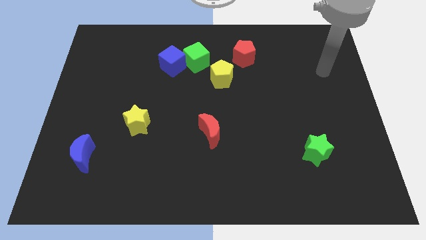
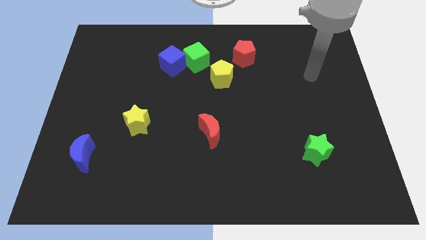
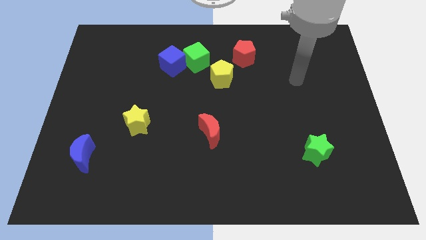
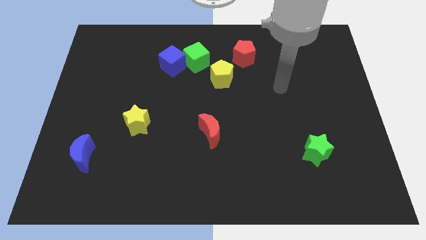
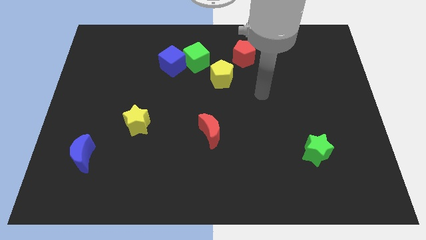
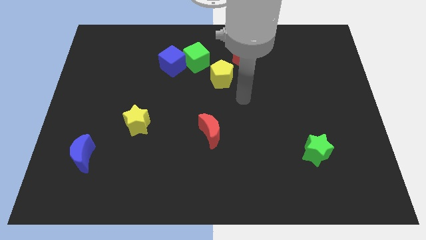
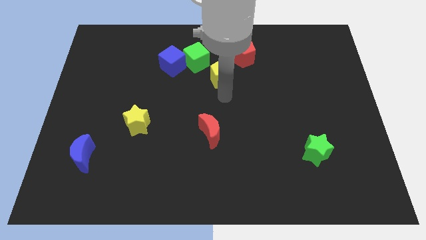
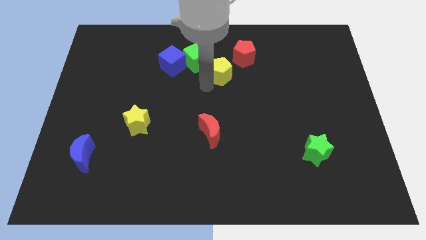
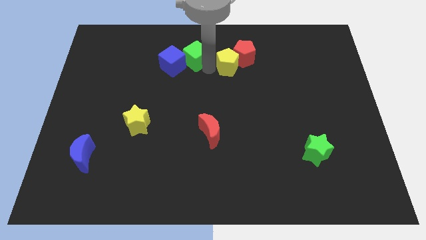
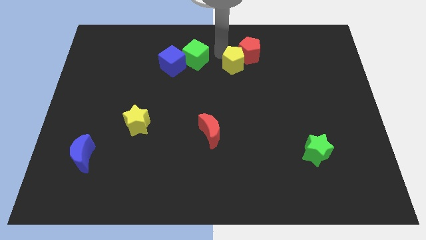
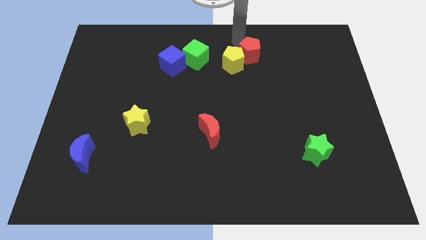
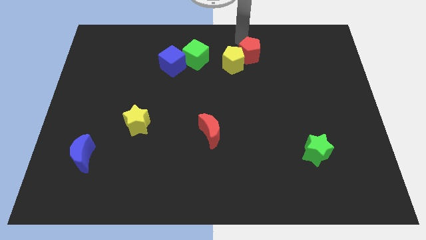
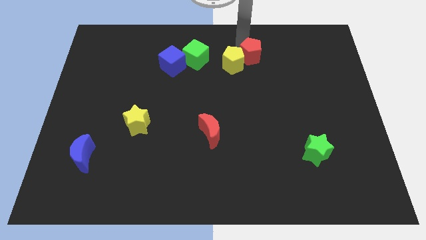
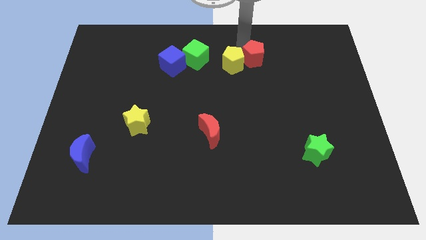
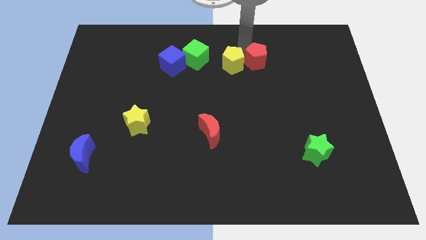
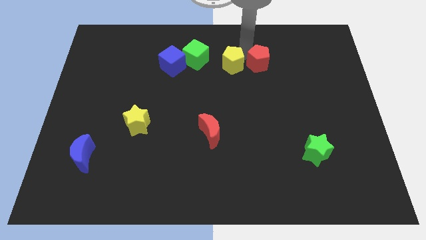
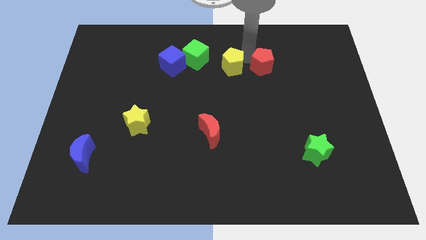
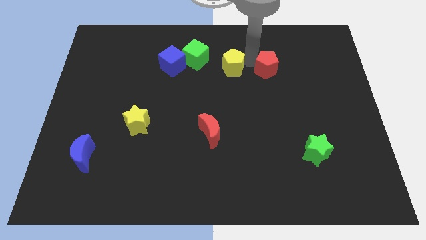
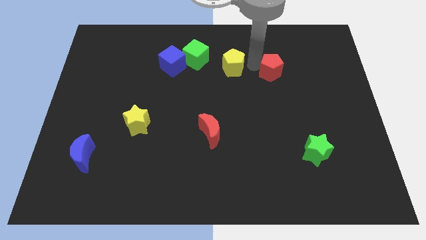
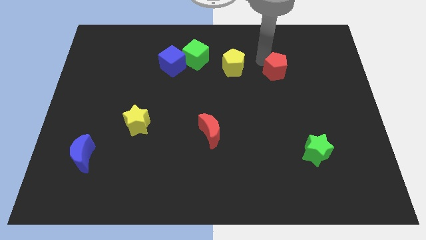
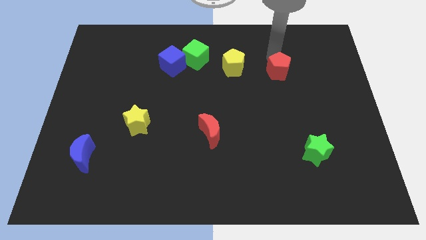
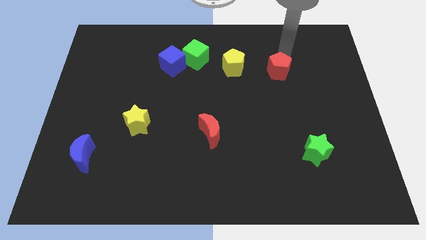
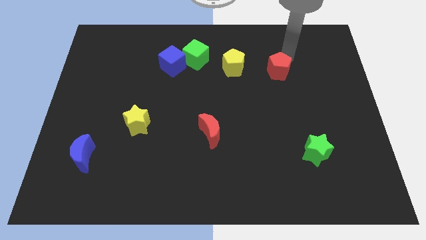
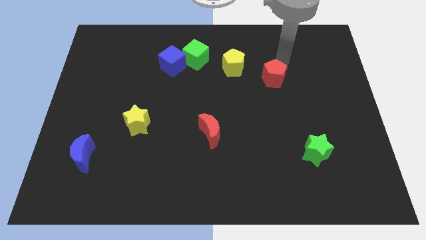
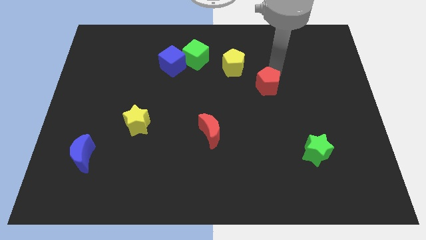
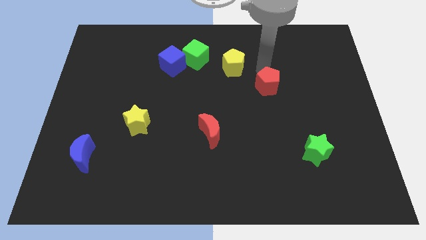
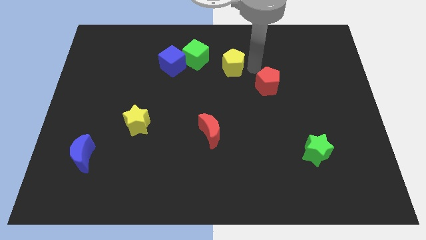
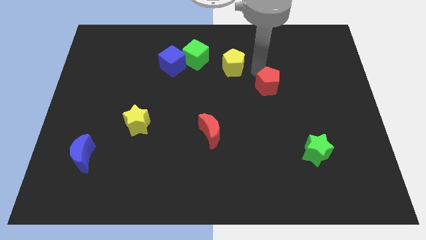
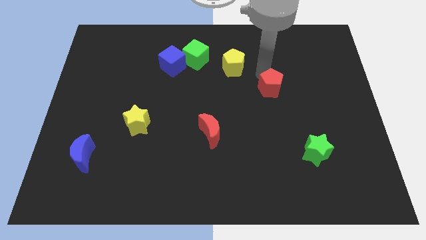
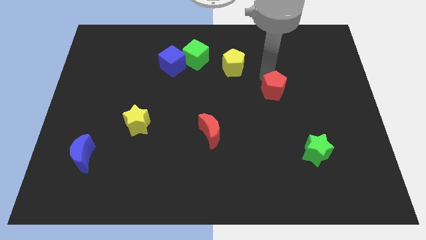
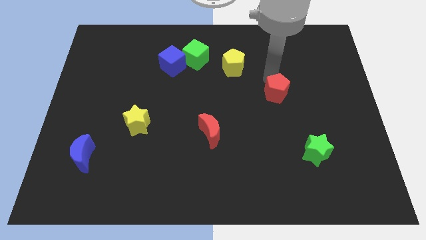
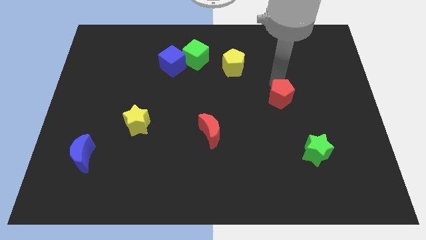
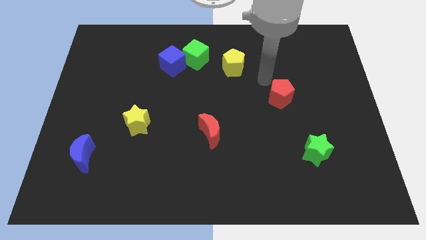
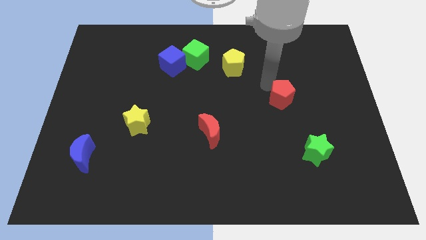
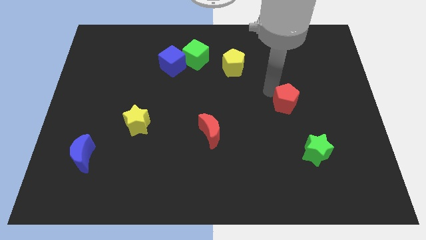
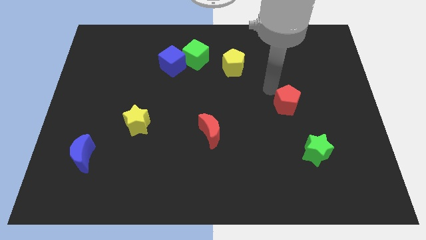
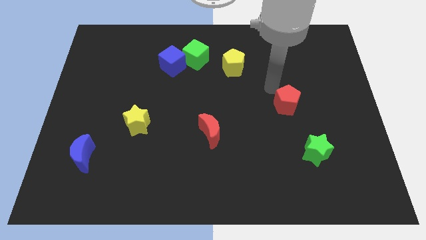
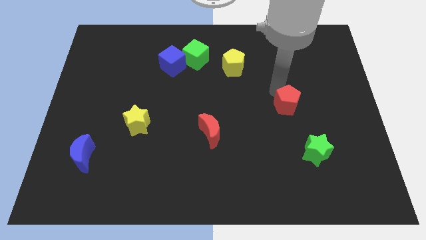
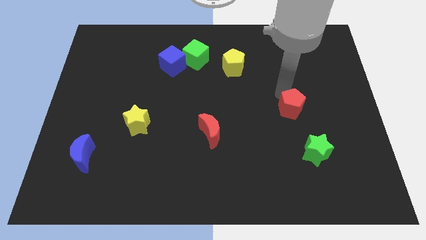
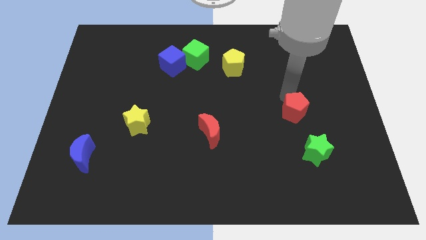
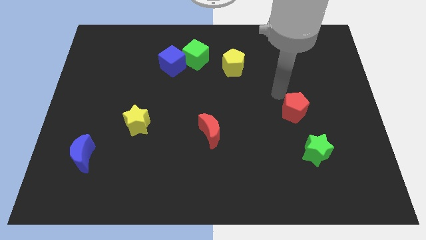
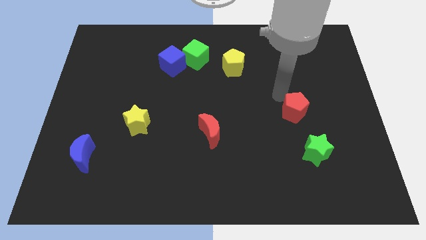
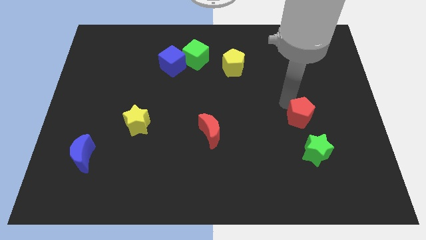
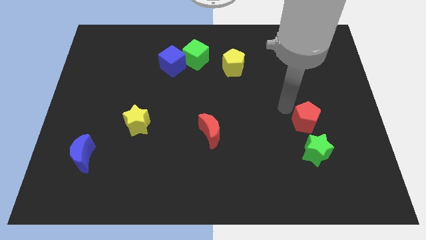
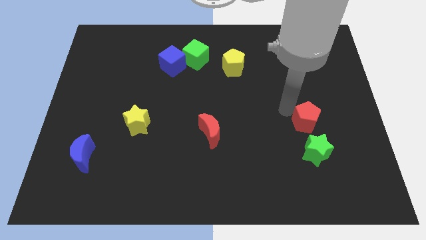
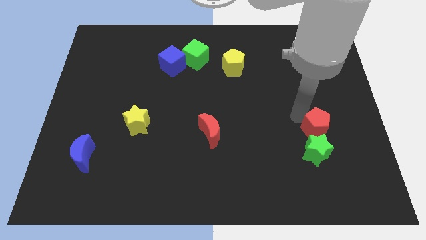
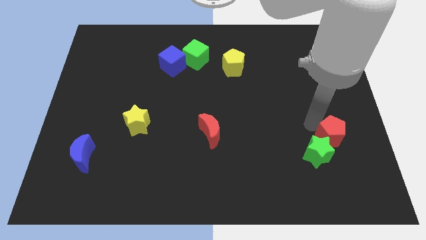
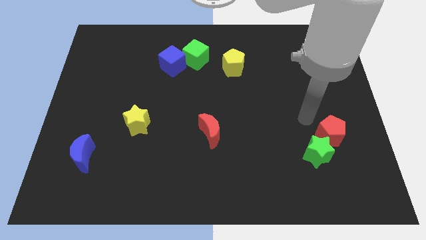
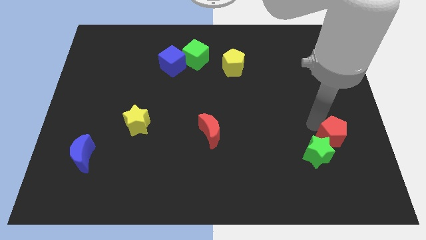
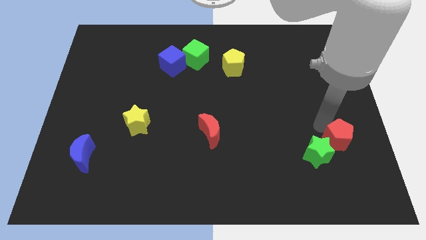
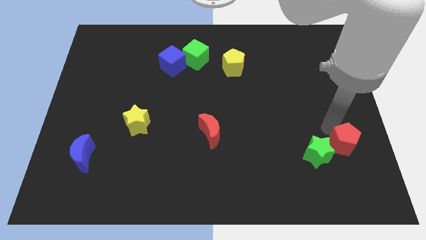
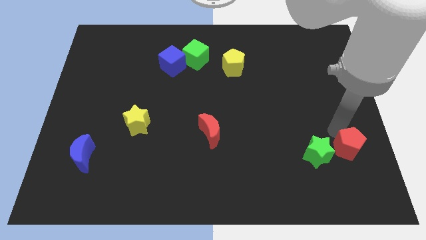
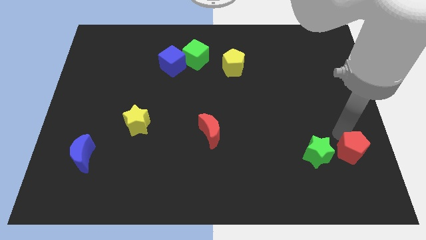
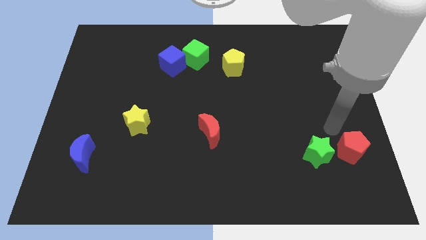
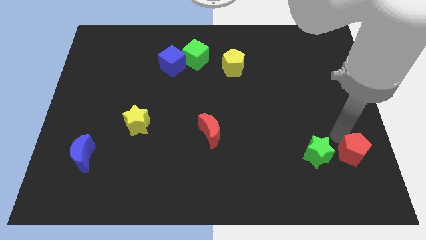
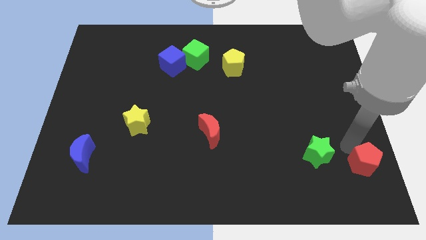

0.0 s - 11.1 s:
put the red pentagon to the lower right corner

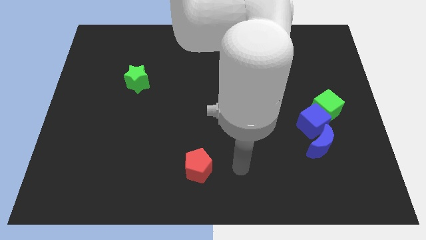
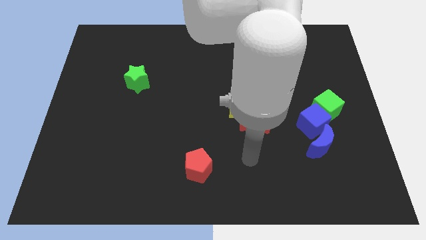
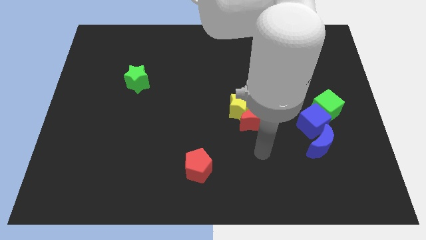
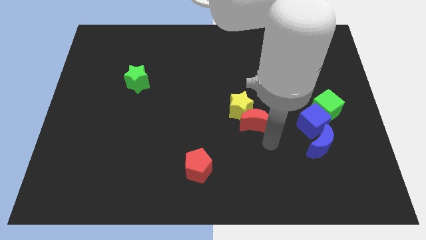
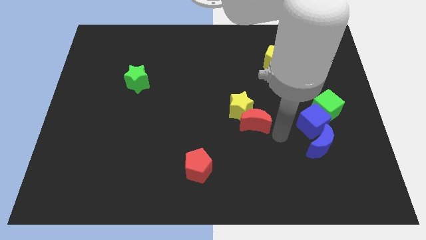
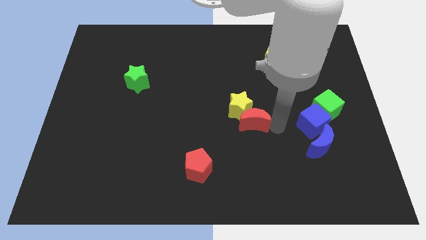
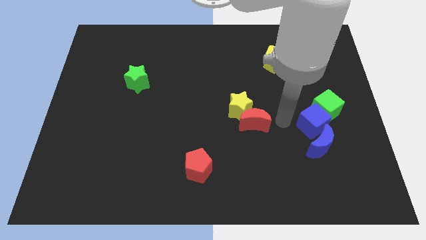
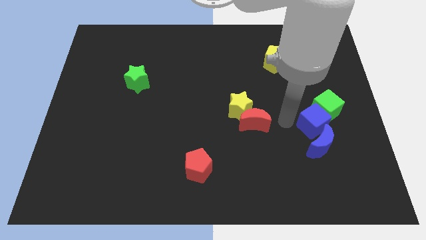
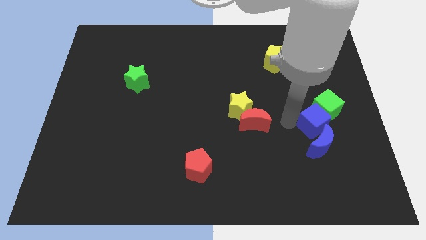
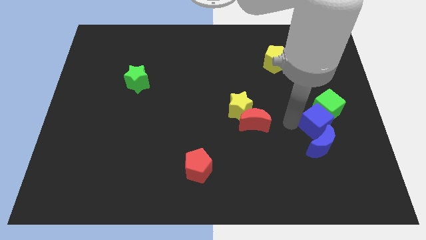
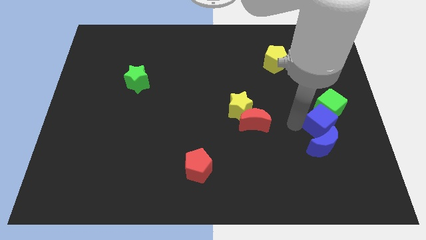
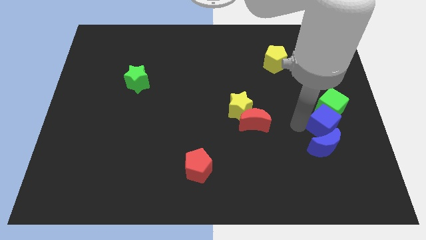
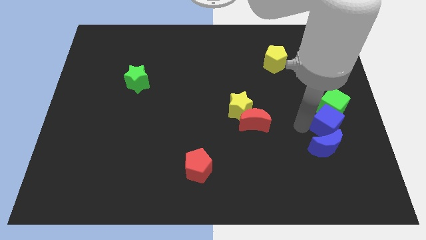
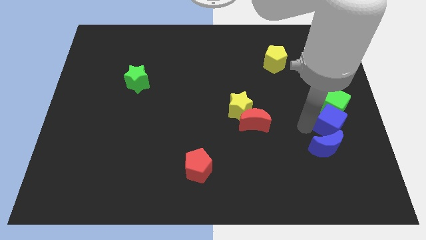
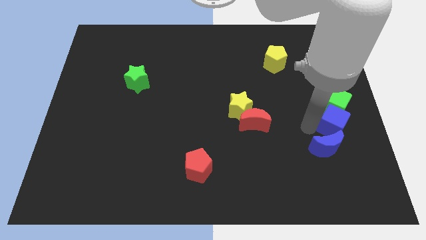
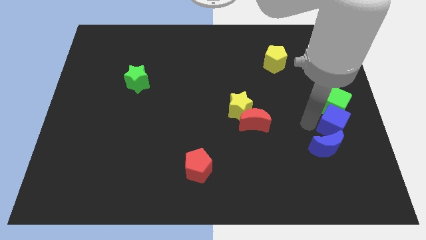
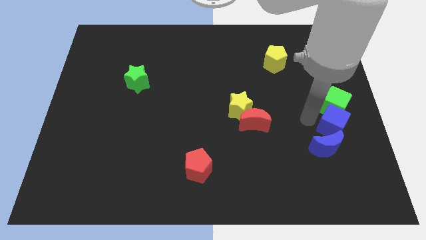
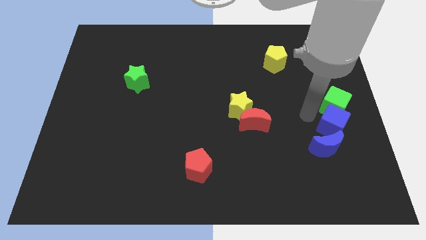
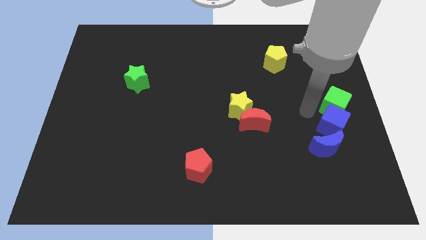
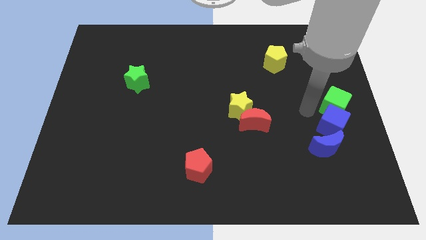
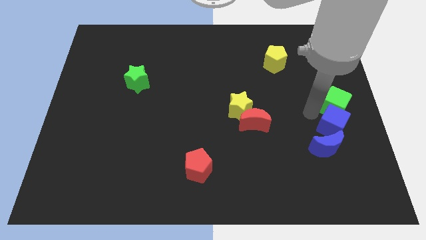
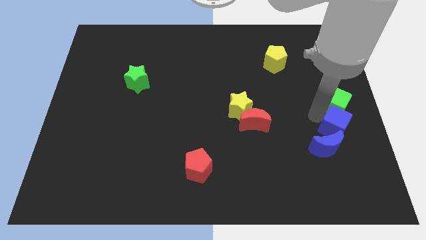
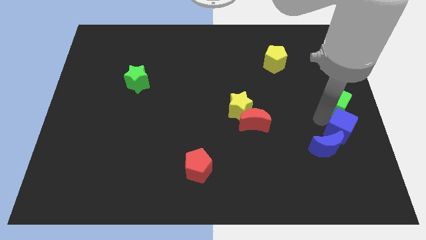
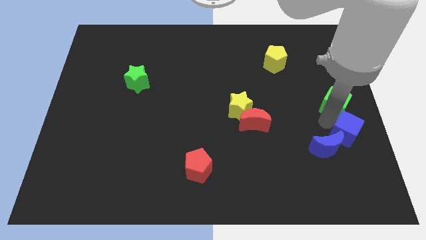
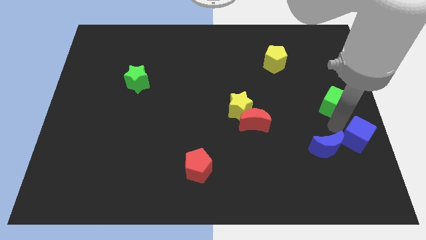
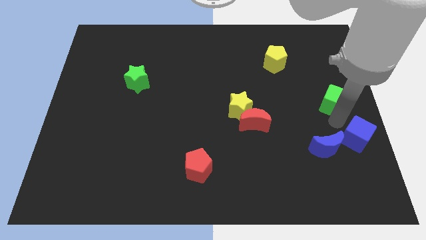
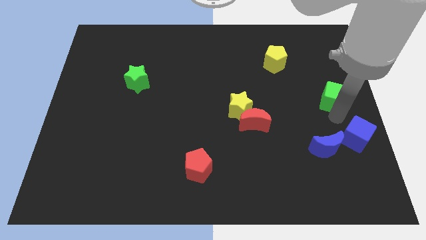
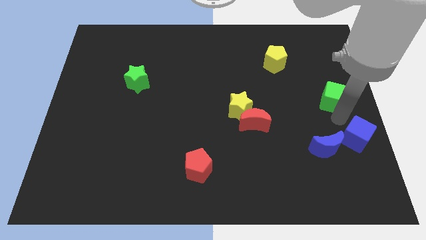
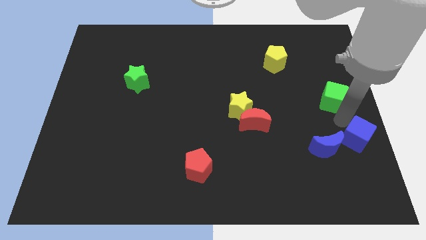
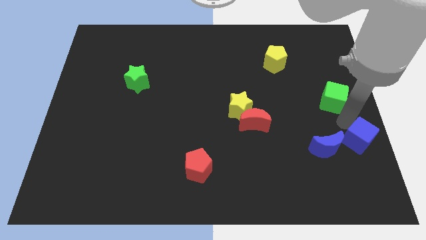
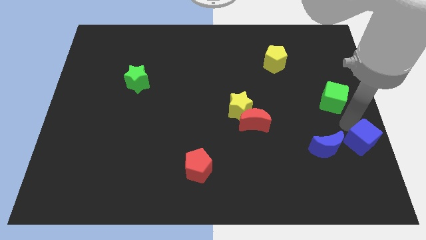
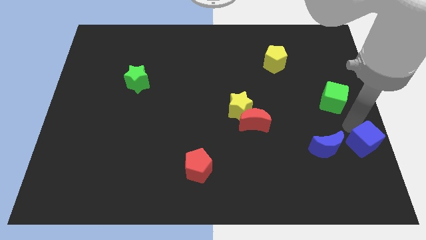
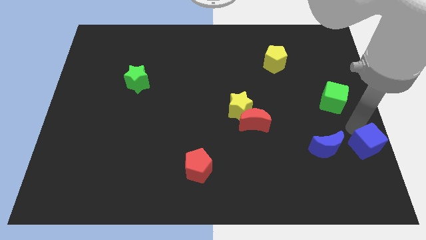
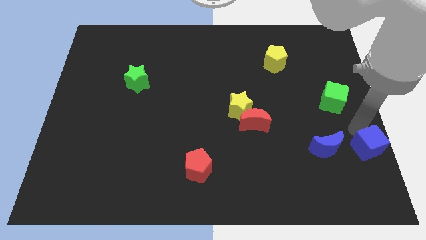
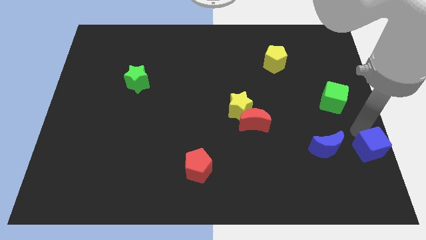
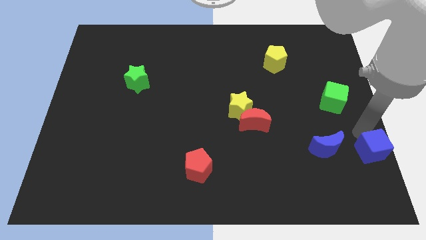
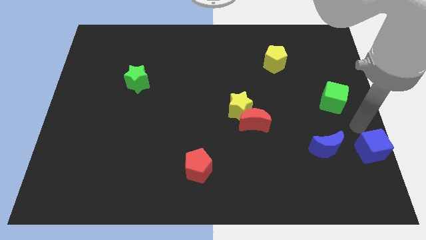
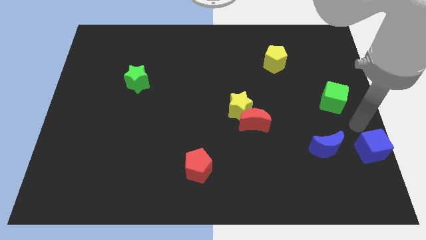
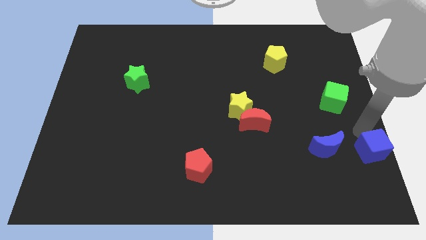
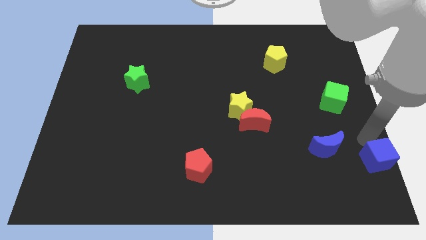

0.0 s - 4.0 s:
put the blue cube to the lower right corner
